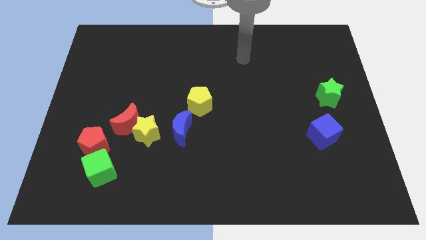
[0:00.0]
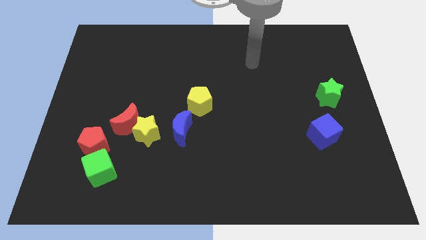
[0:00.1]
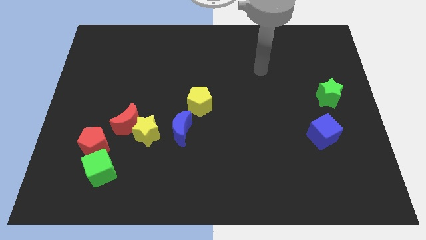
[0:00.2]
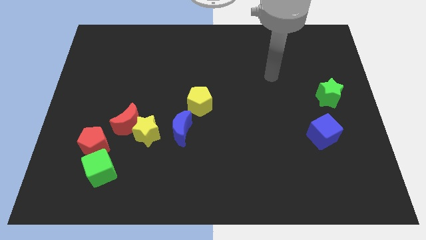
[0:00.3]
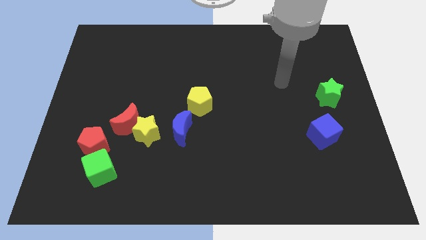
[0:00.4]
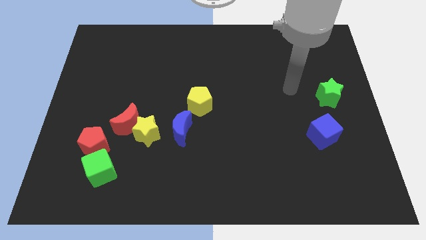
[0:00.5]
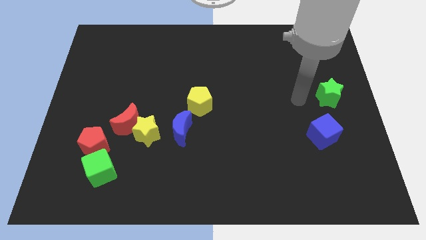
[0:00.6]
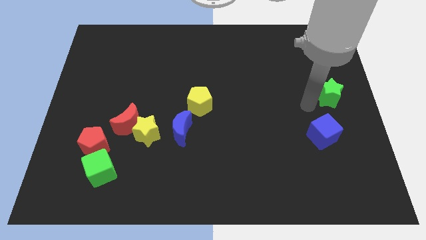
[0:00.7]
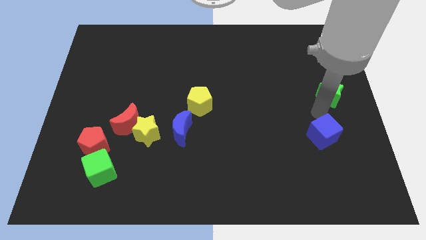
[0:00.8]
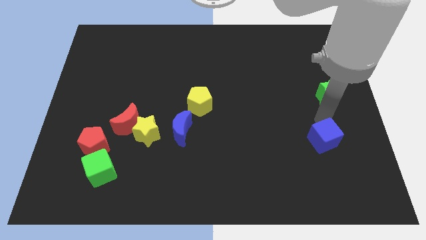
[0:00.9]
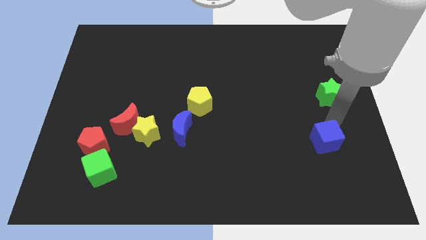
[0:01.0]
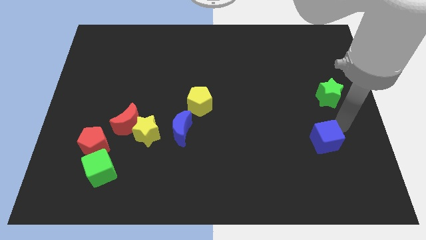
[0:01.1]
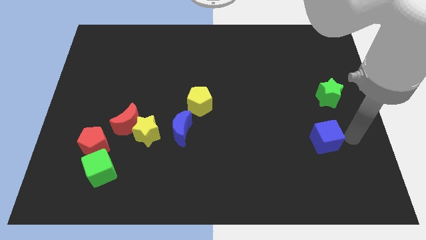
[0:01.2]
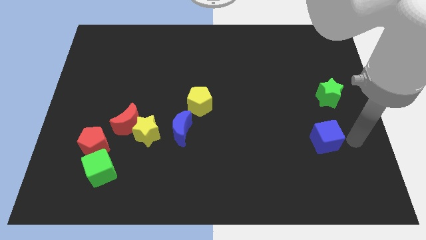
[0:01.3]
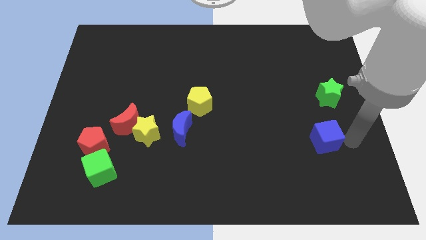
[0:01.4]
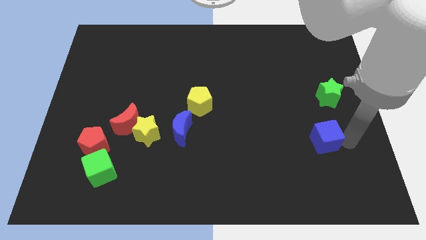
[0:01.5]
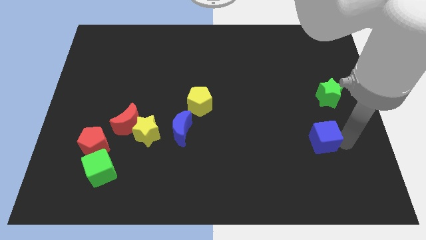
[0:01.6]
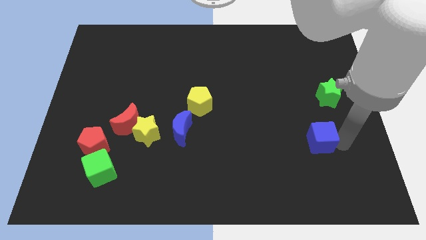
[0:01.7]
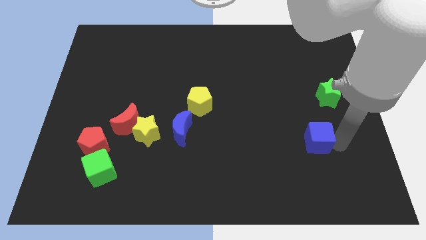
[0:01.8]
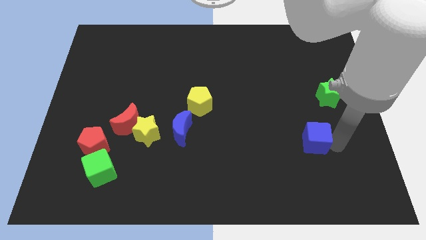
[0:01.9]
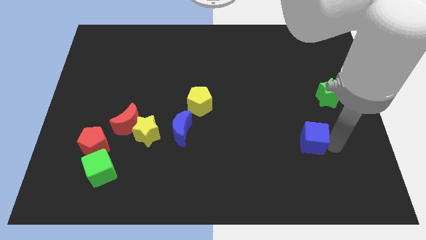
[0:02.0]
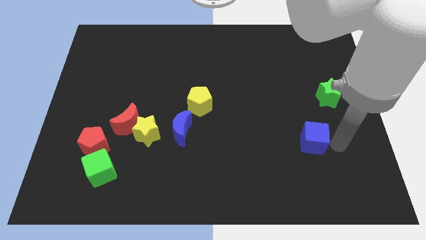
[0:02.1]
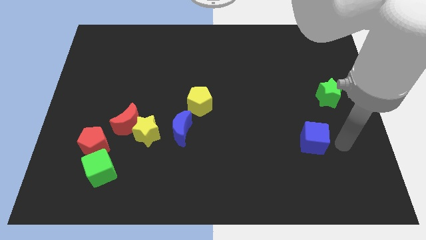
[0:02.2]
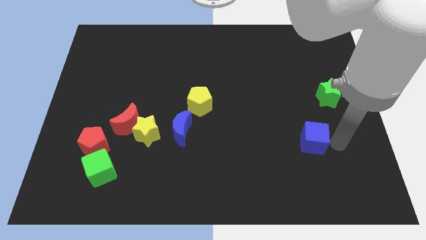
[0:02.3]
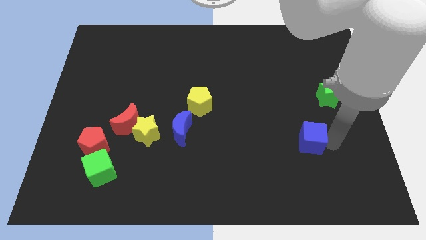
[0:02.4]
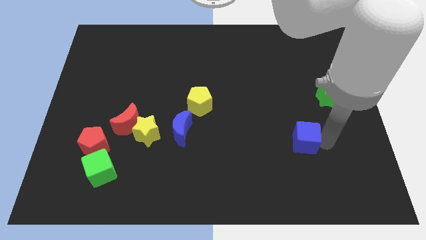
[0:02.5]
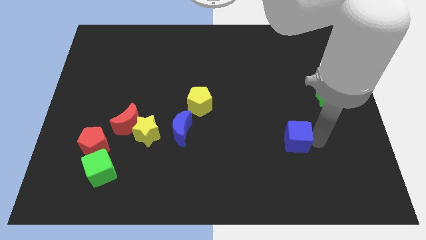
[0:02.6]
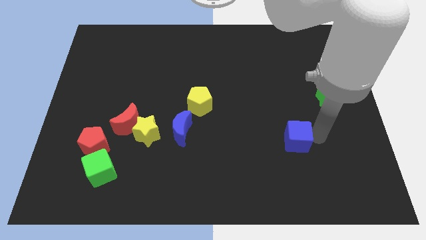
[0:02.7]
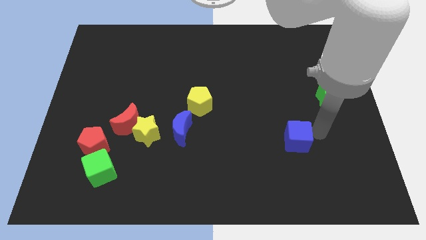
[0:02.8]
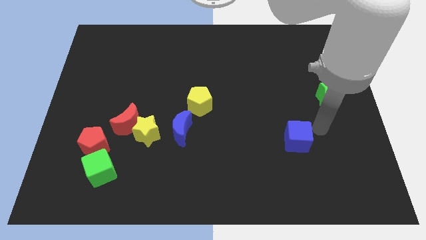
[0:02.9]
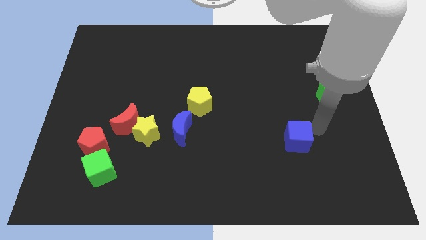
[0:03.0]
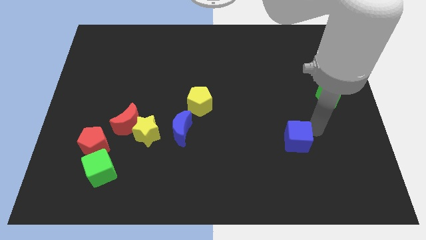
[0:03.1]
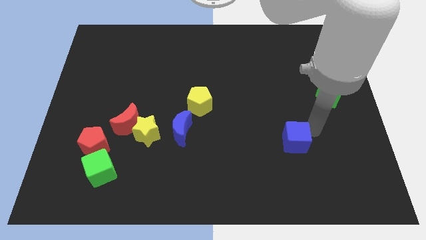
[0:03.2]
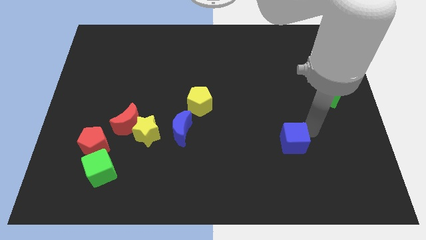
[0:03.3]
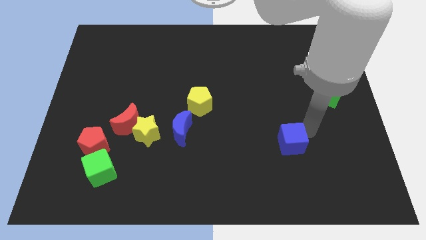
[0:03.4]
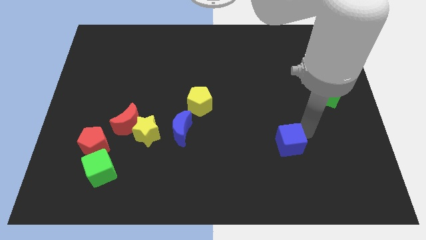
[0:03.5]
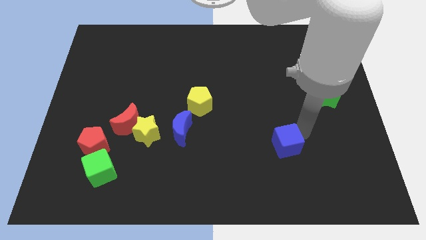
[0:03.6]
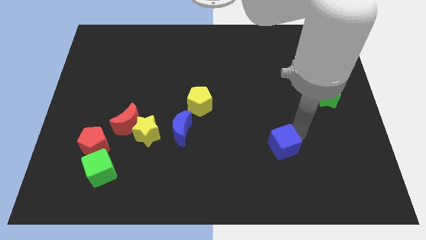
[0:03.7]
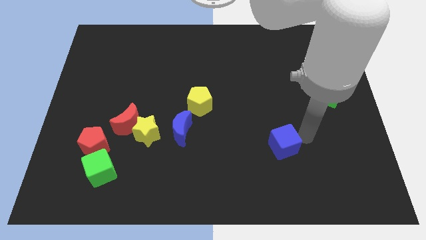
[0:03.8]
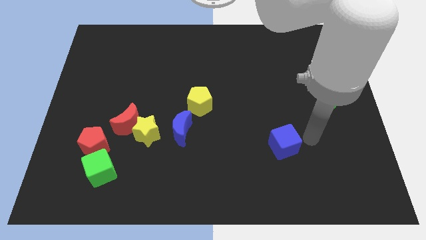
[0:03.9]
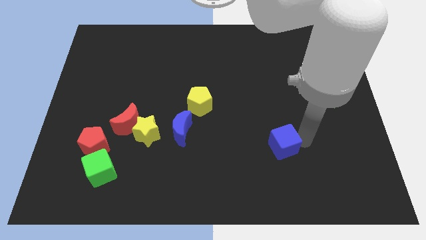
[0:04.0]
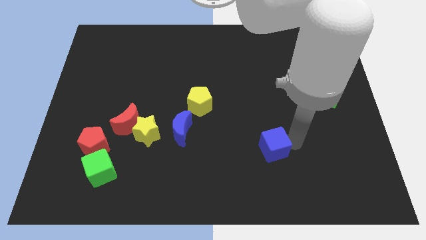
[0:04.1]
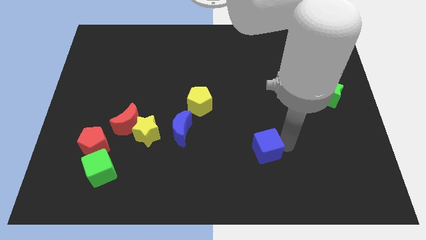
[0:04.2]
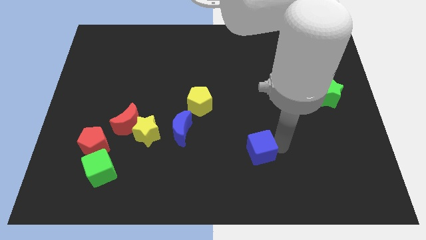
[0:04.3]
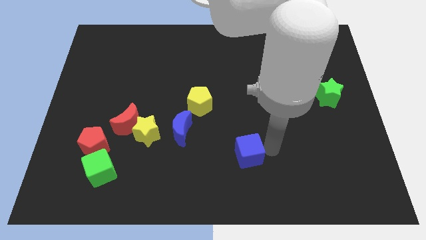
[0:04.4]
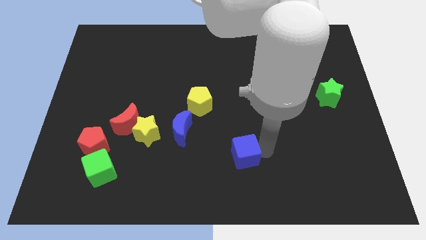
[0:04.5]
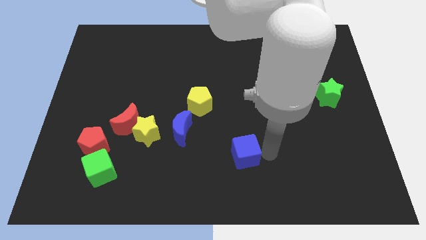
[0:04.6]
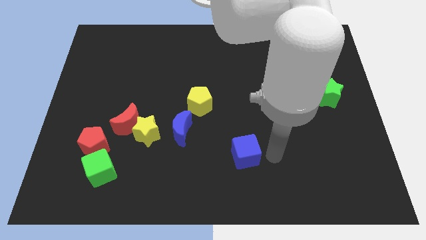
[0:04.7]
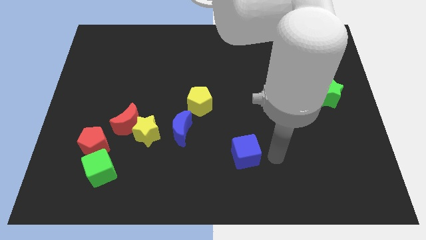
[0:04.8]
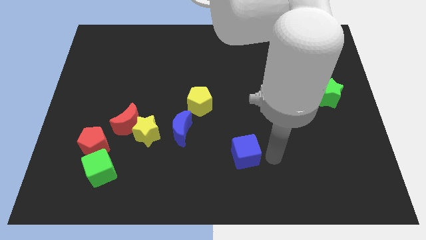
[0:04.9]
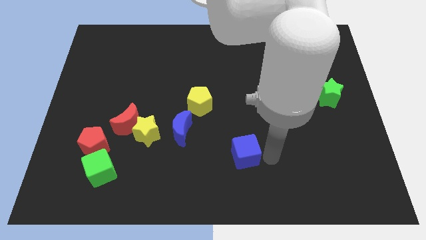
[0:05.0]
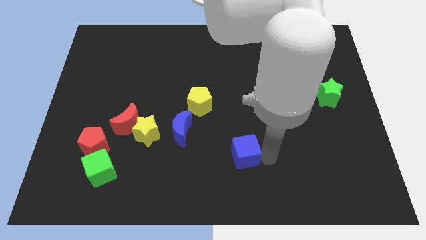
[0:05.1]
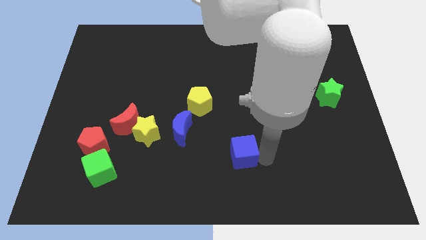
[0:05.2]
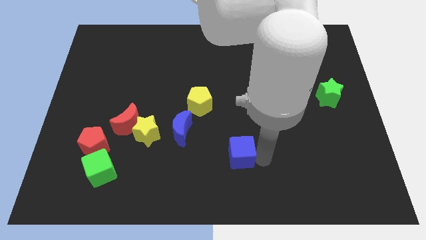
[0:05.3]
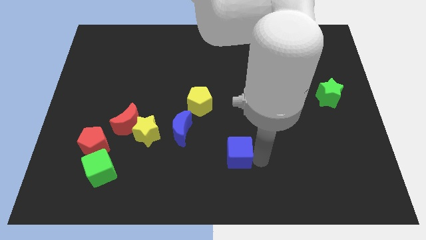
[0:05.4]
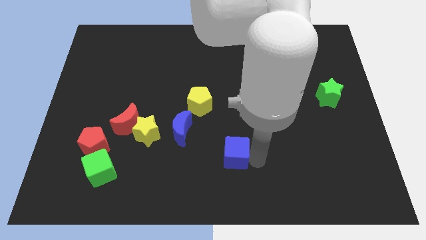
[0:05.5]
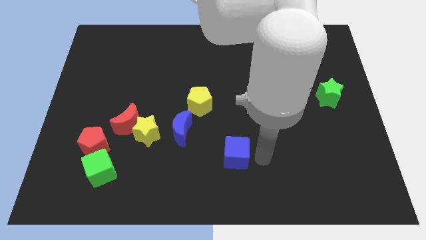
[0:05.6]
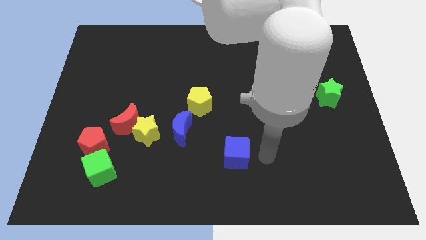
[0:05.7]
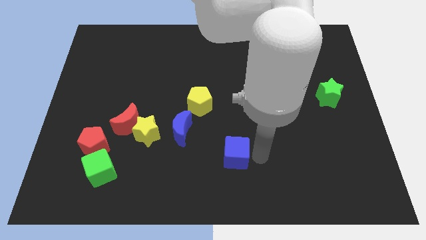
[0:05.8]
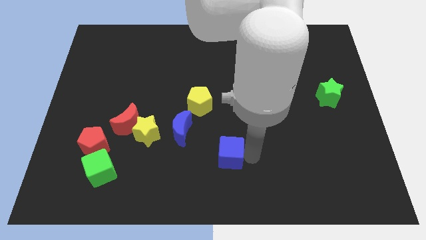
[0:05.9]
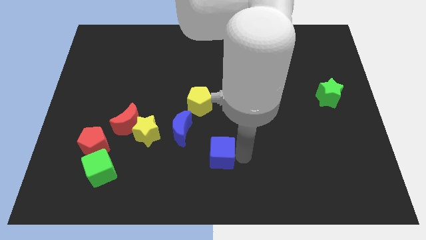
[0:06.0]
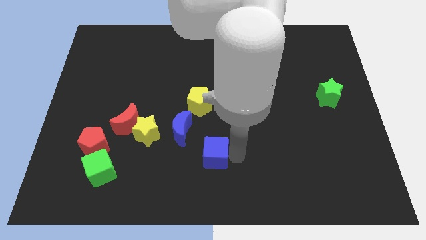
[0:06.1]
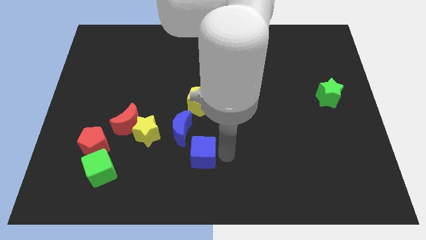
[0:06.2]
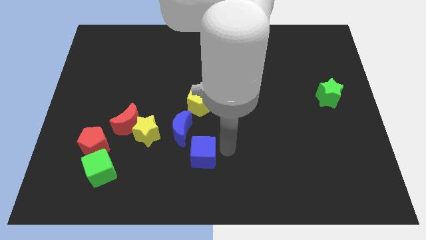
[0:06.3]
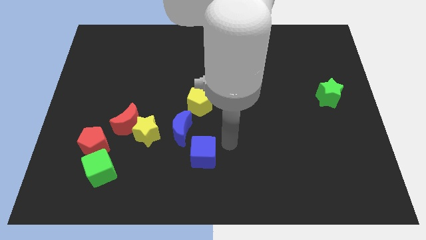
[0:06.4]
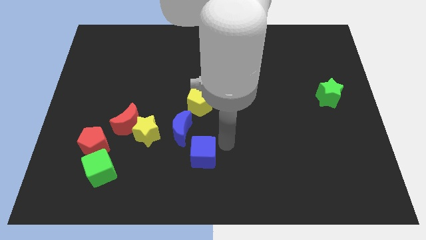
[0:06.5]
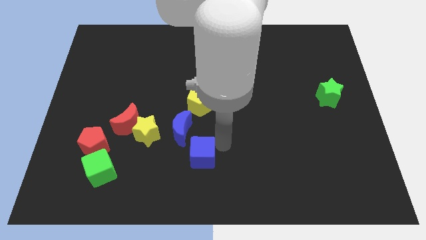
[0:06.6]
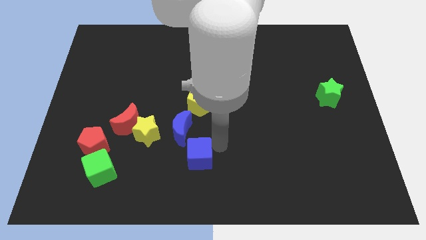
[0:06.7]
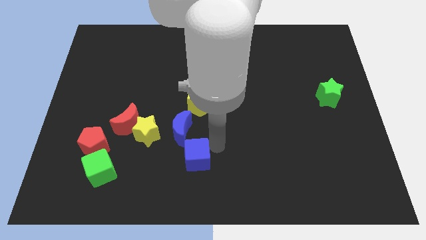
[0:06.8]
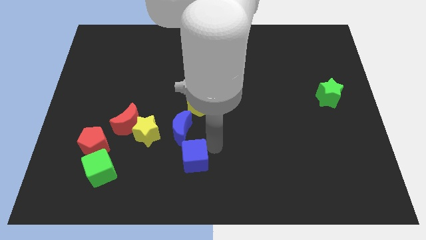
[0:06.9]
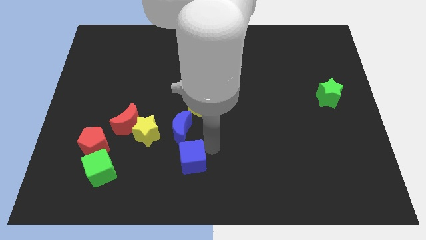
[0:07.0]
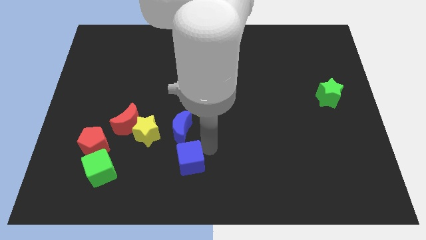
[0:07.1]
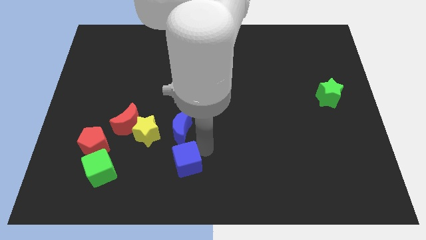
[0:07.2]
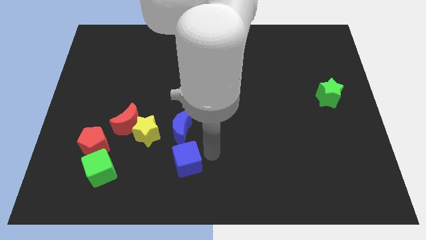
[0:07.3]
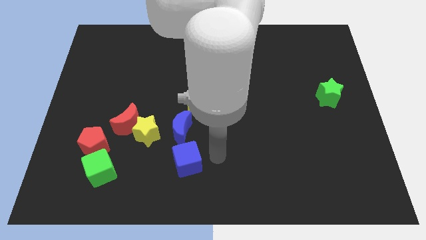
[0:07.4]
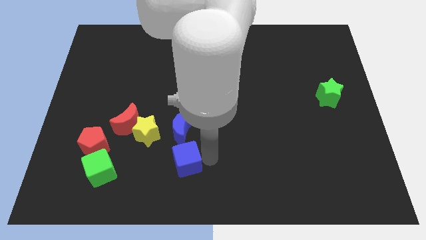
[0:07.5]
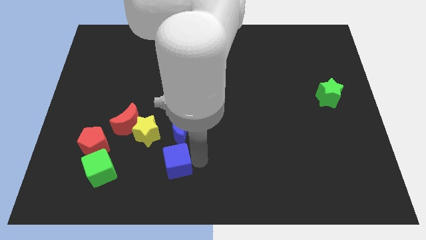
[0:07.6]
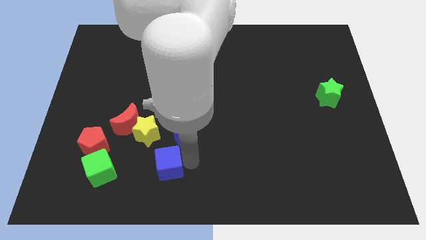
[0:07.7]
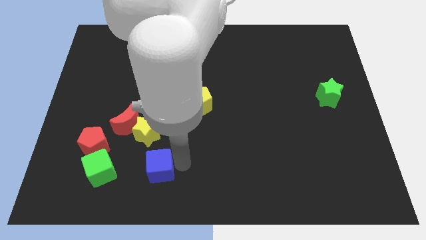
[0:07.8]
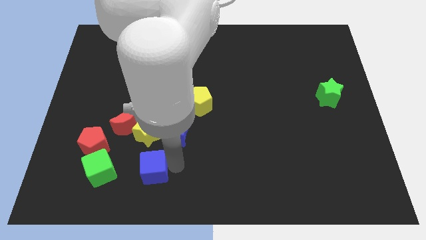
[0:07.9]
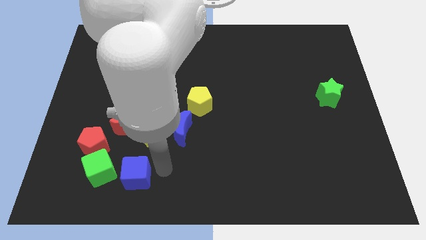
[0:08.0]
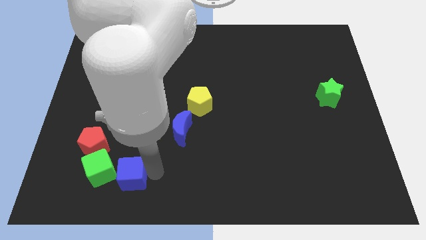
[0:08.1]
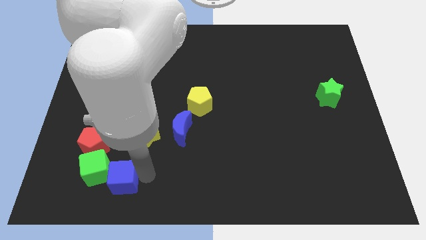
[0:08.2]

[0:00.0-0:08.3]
slide the blue cube close to the green cube
